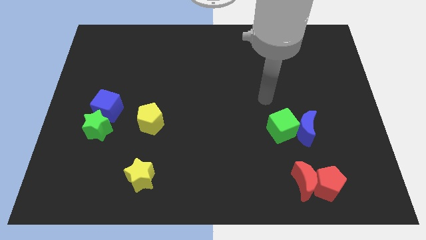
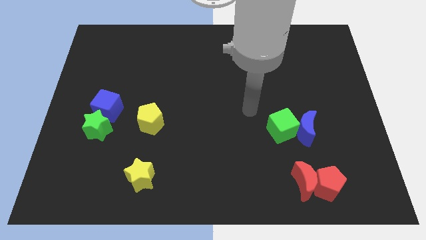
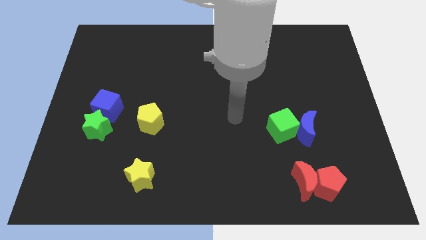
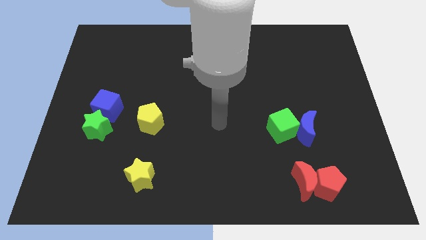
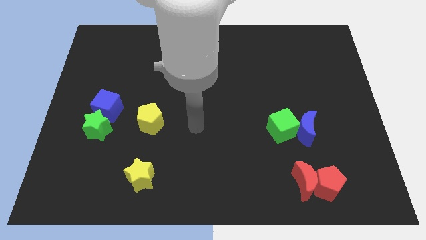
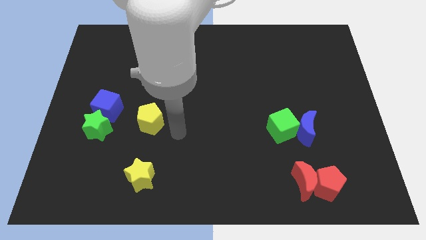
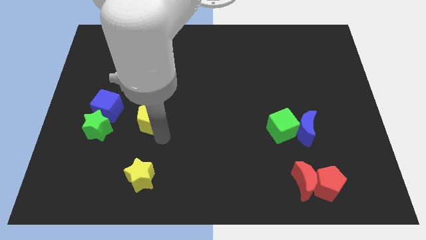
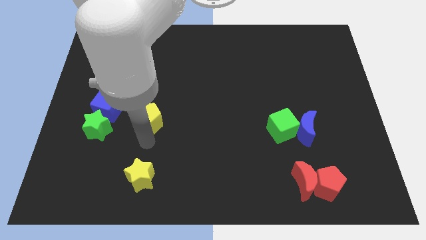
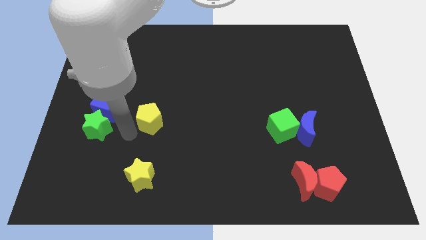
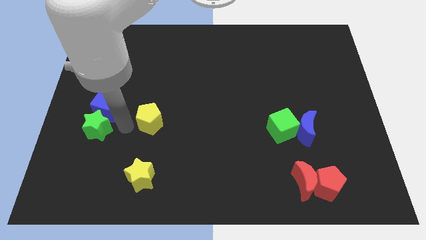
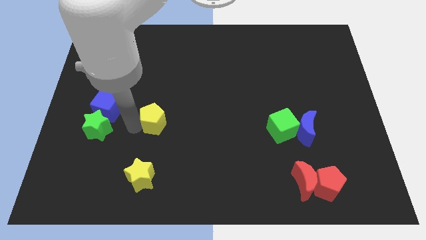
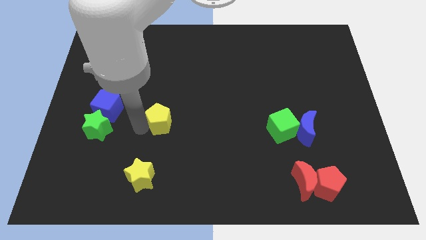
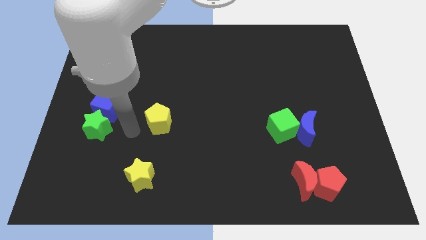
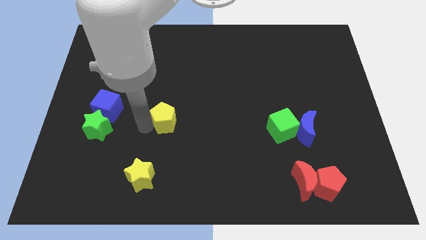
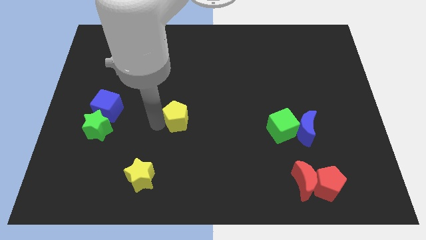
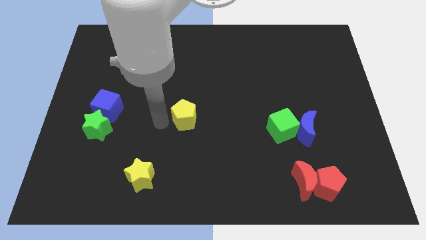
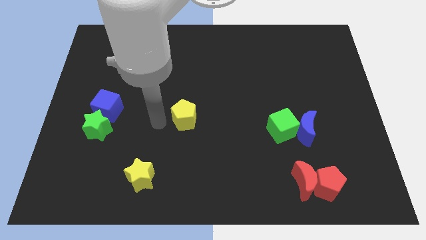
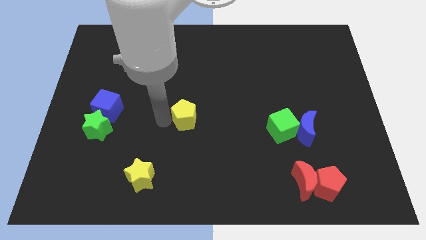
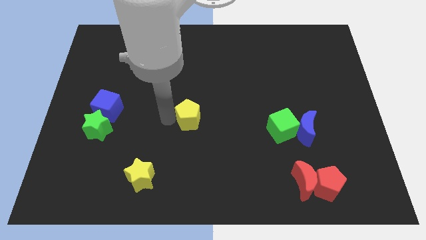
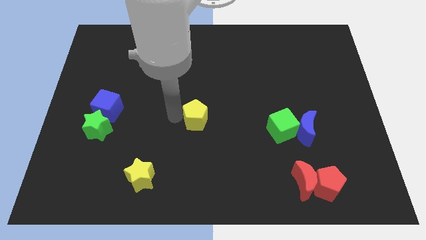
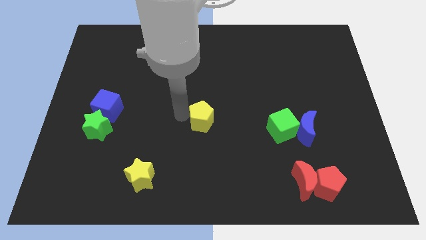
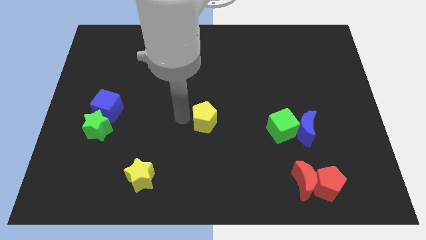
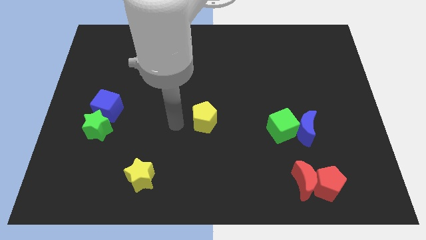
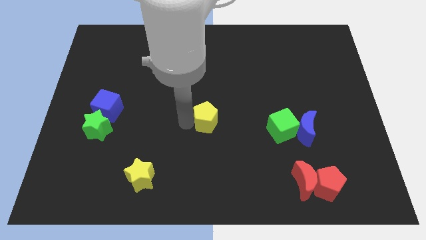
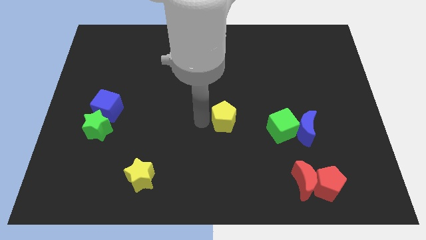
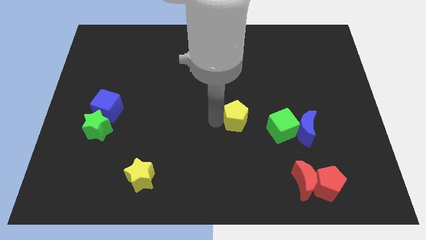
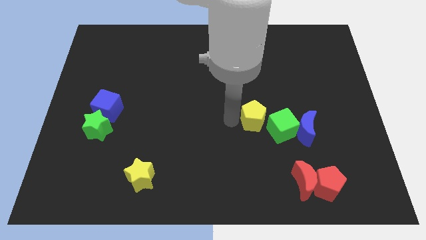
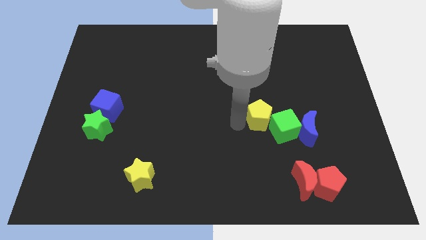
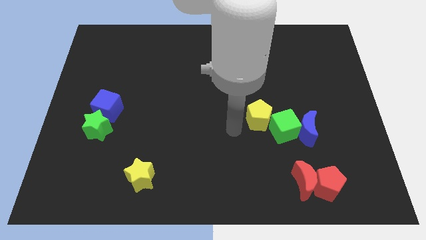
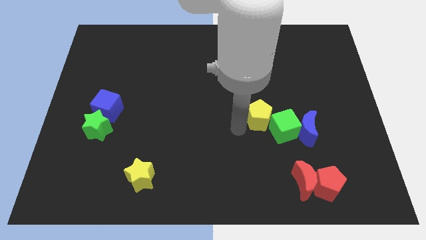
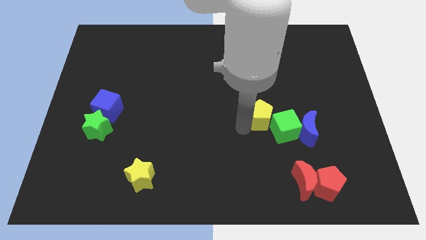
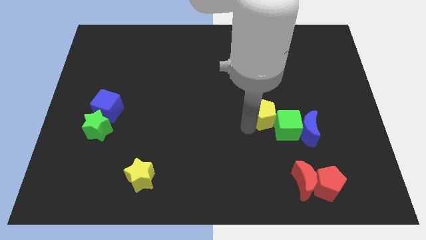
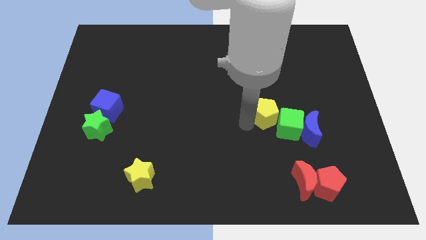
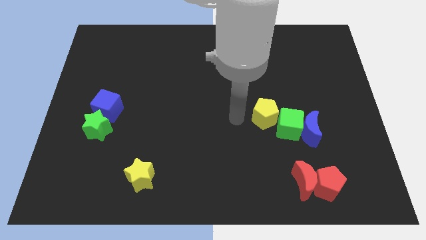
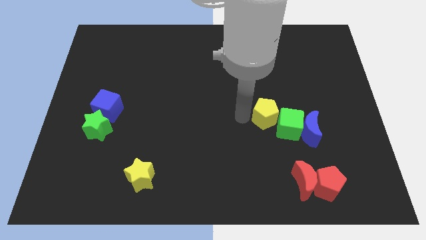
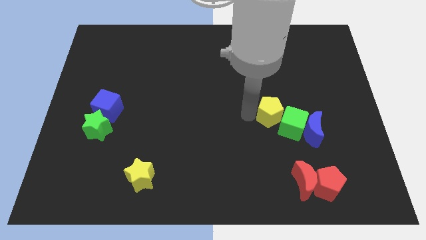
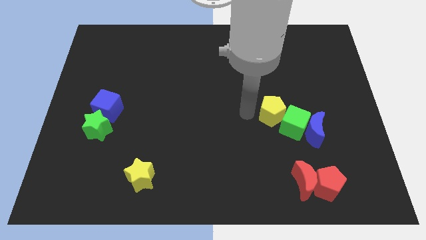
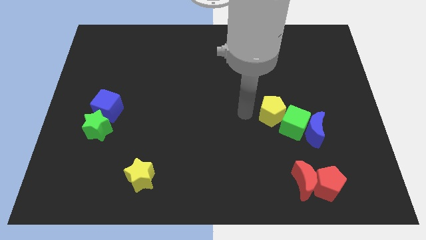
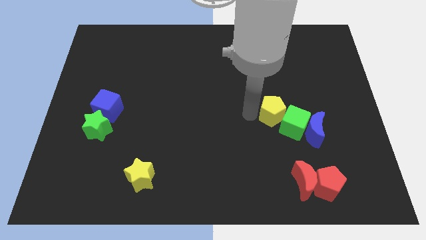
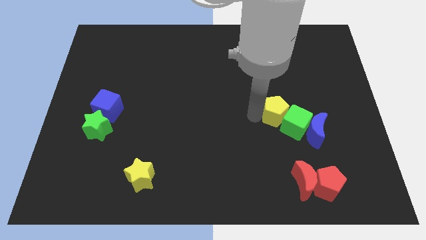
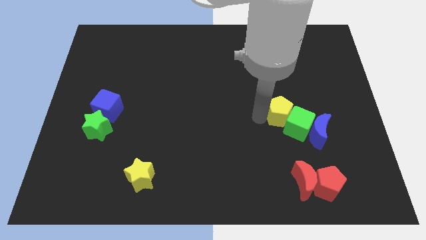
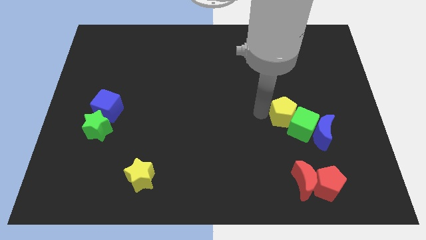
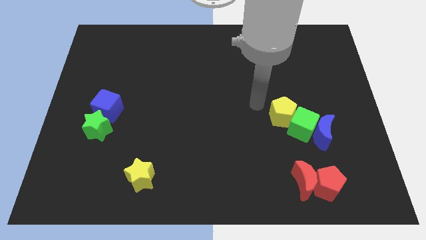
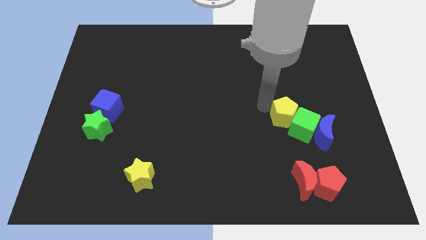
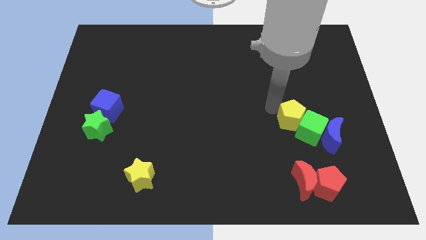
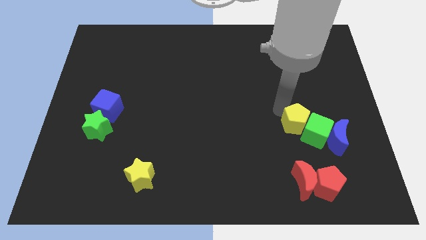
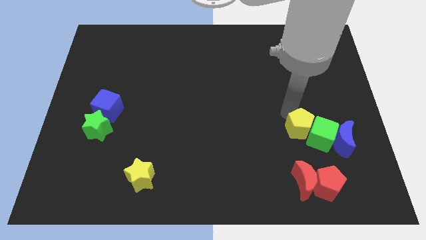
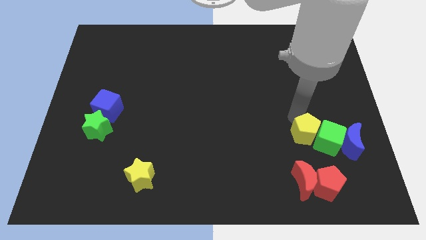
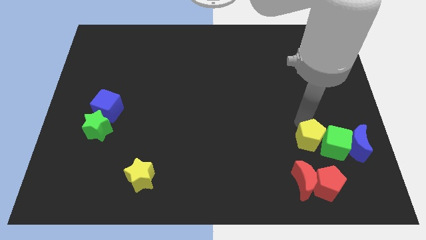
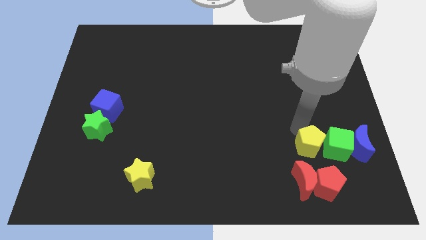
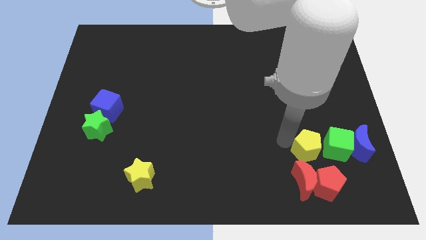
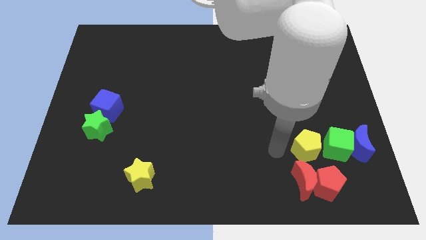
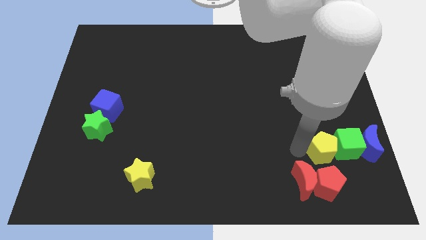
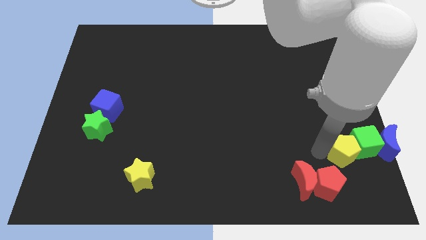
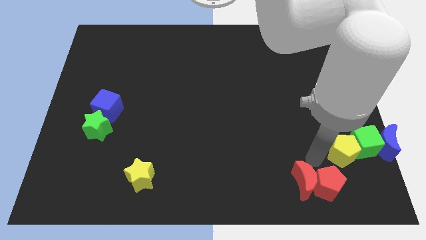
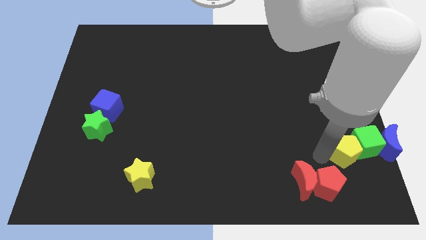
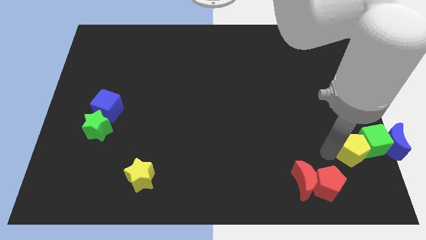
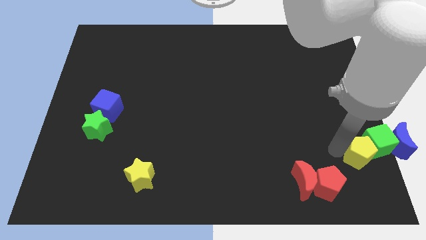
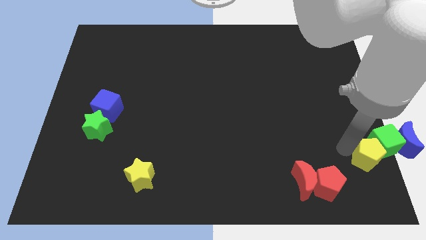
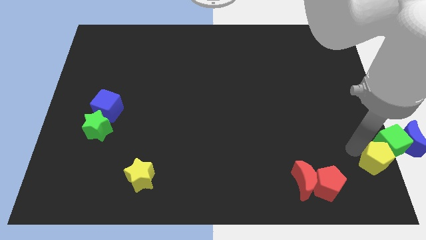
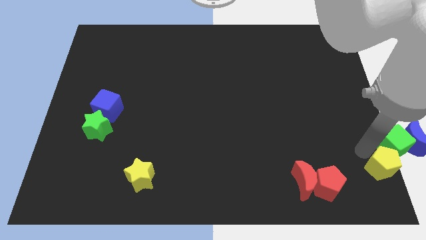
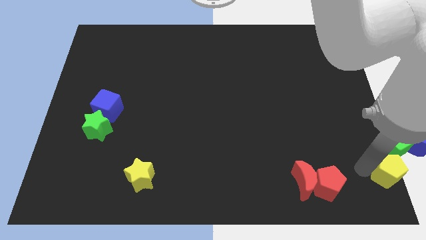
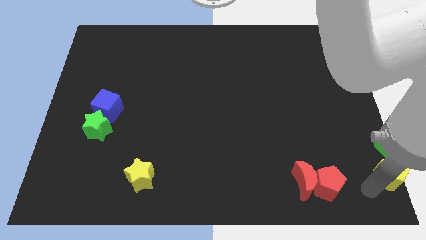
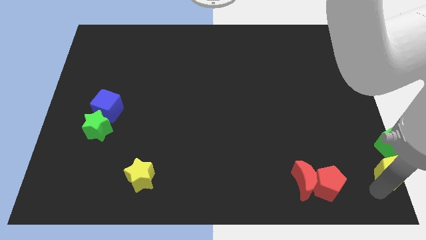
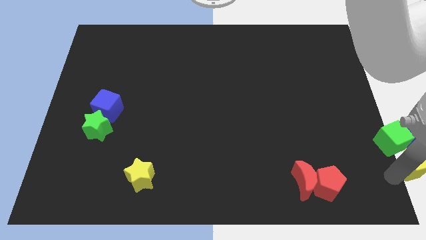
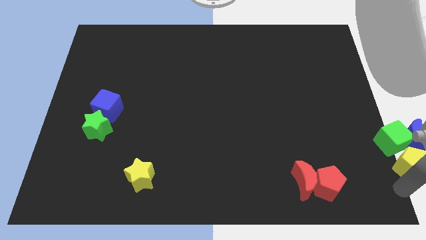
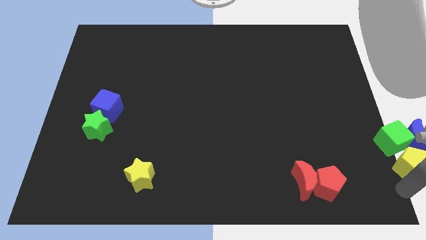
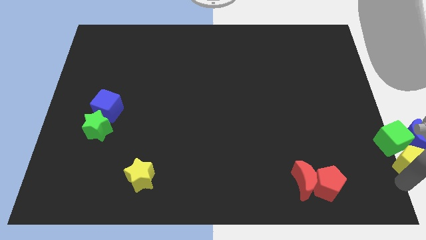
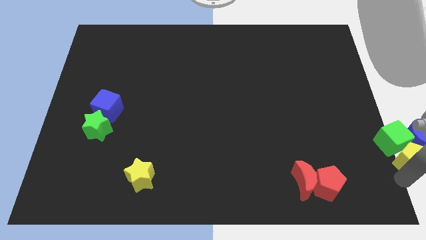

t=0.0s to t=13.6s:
move the yellow pentagon next to the blue moon
